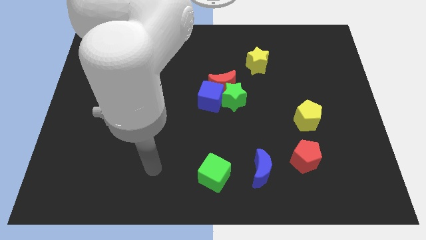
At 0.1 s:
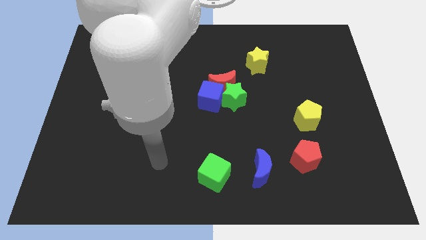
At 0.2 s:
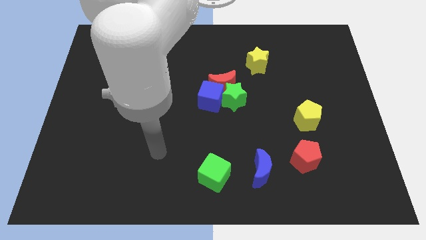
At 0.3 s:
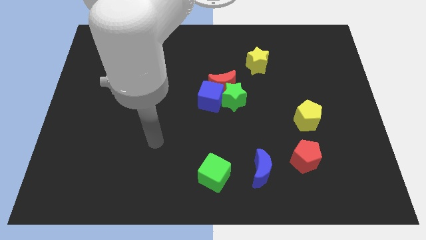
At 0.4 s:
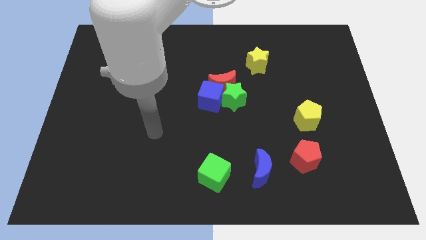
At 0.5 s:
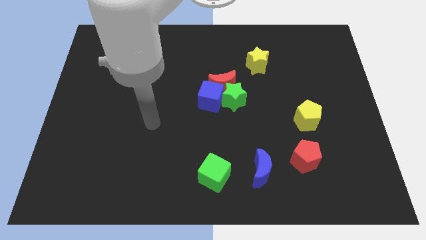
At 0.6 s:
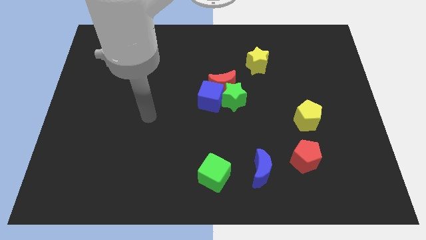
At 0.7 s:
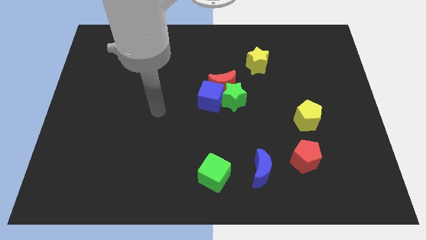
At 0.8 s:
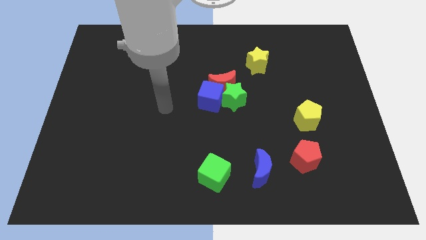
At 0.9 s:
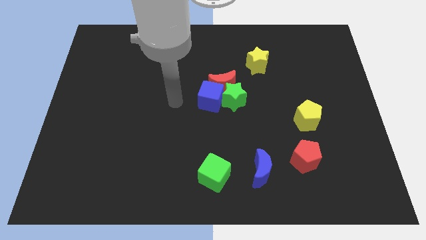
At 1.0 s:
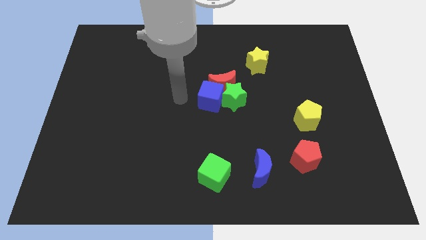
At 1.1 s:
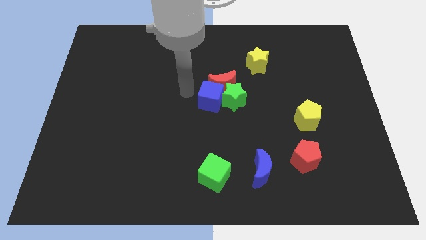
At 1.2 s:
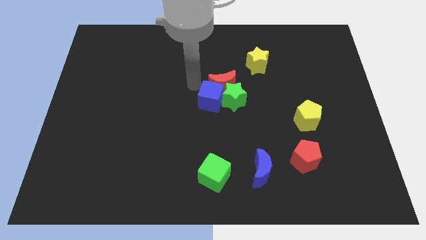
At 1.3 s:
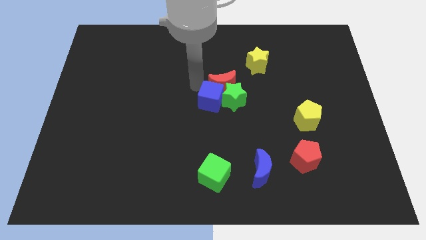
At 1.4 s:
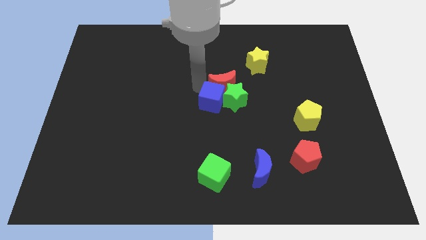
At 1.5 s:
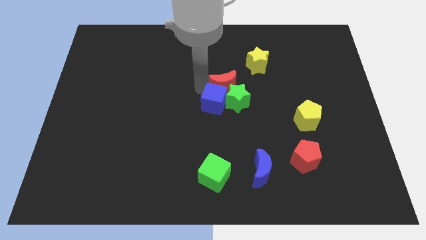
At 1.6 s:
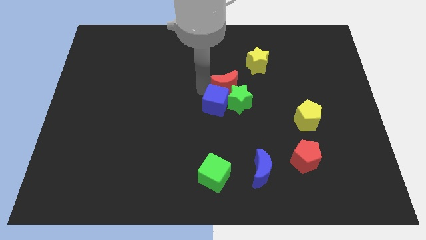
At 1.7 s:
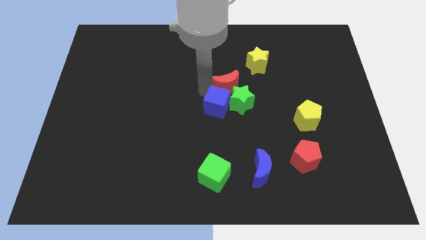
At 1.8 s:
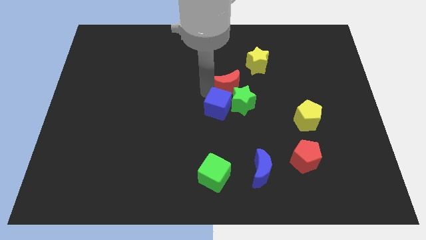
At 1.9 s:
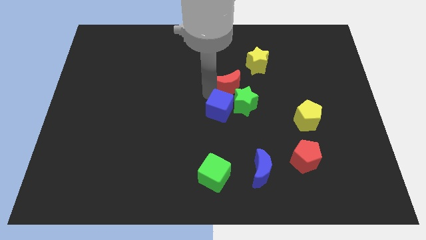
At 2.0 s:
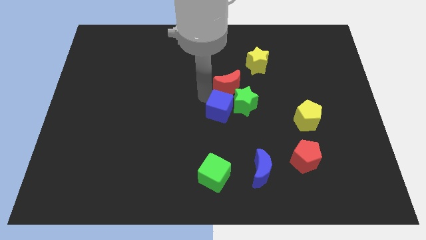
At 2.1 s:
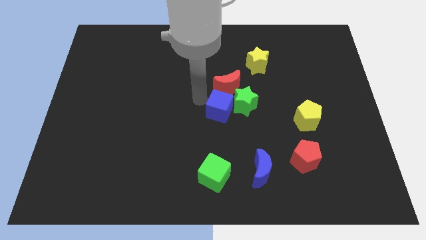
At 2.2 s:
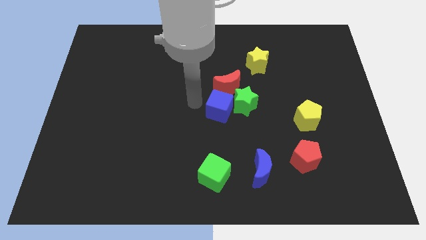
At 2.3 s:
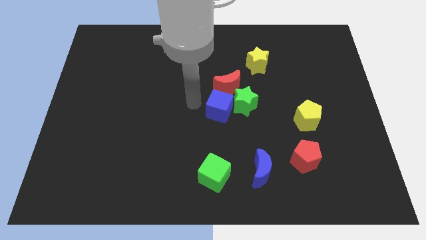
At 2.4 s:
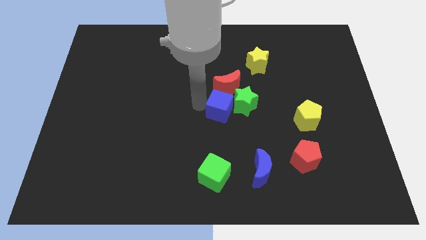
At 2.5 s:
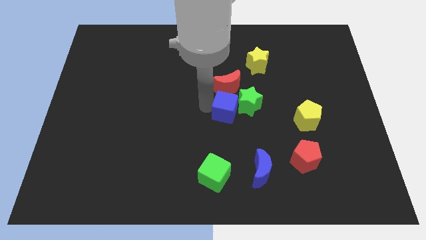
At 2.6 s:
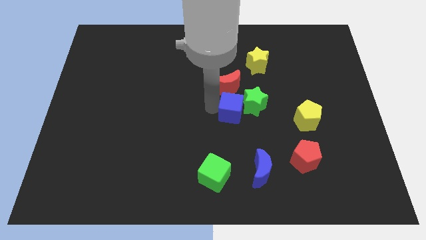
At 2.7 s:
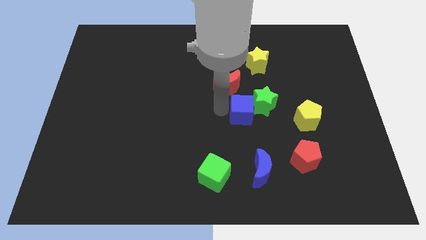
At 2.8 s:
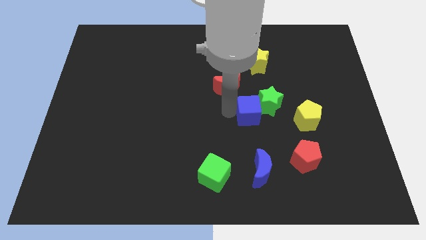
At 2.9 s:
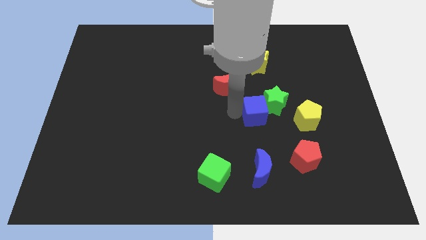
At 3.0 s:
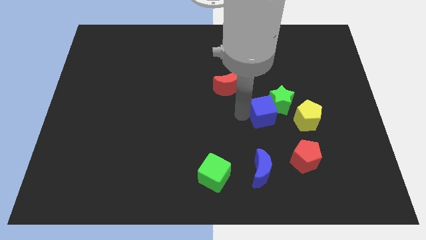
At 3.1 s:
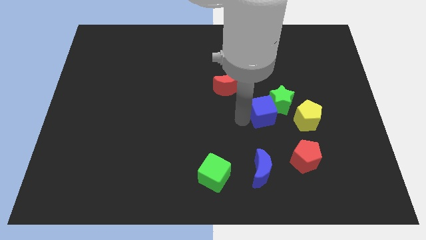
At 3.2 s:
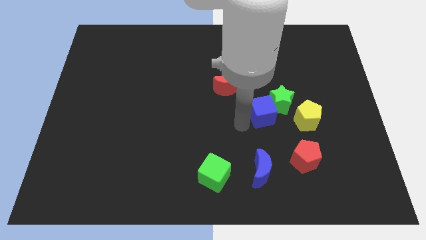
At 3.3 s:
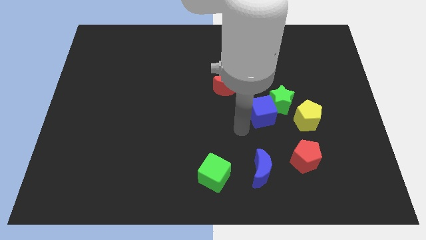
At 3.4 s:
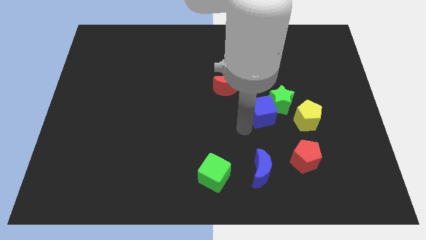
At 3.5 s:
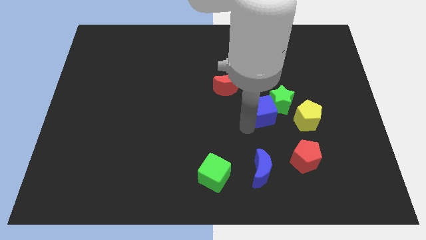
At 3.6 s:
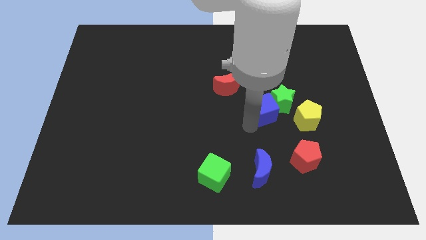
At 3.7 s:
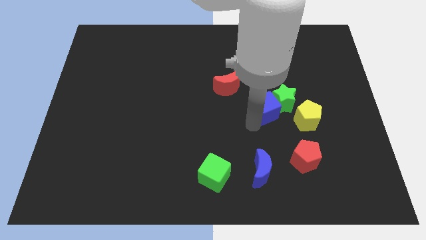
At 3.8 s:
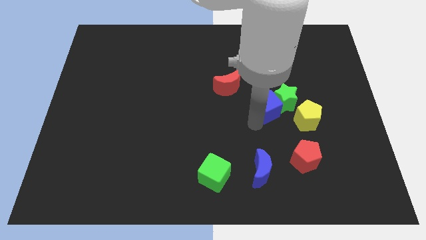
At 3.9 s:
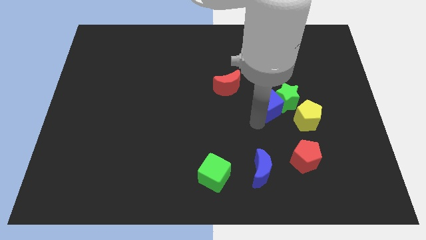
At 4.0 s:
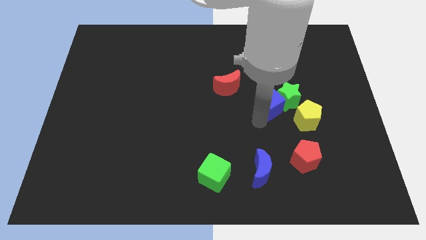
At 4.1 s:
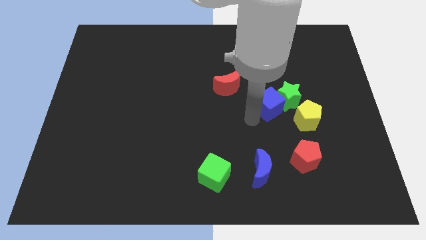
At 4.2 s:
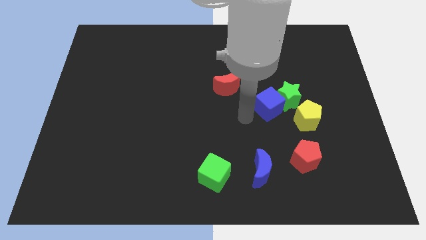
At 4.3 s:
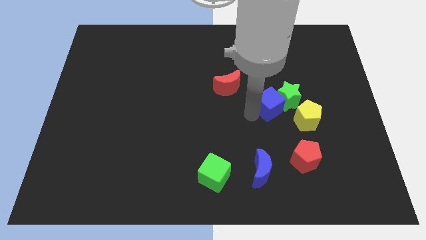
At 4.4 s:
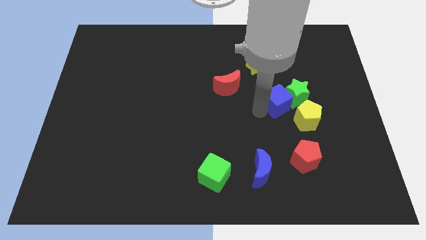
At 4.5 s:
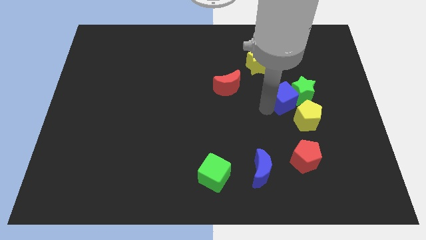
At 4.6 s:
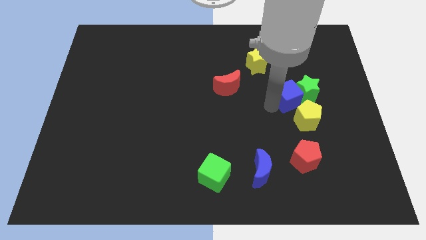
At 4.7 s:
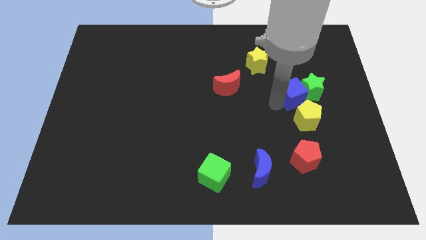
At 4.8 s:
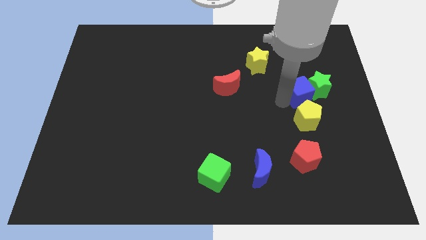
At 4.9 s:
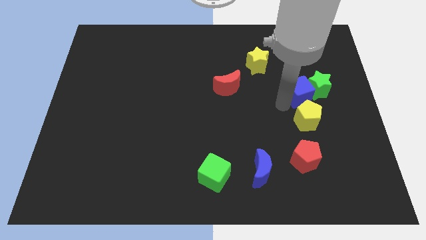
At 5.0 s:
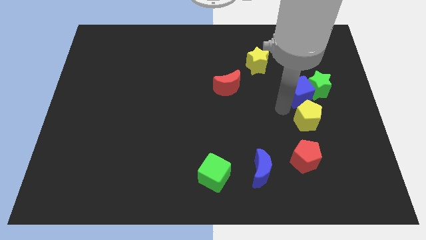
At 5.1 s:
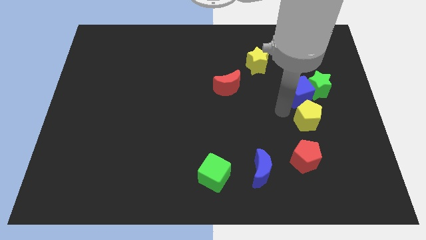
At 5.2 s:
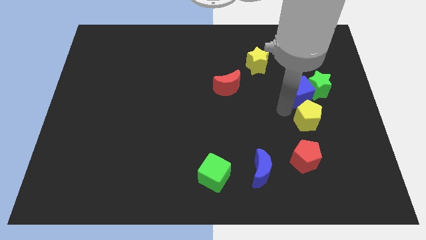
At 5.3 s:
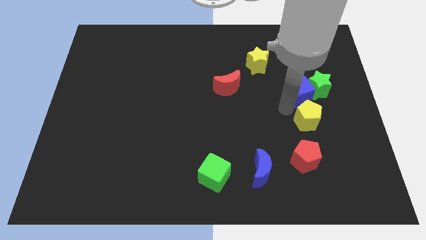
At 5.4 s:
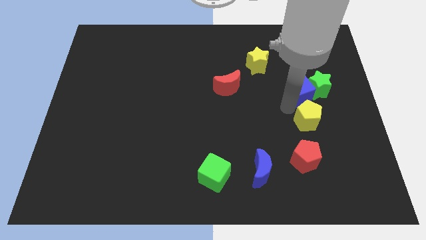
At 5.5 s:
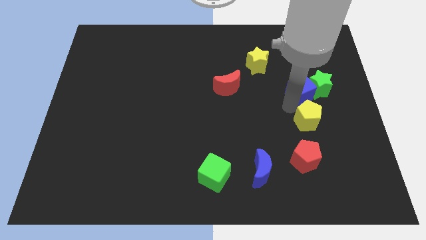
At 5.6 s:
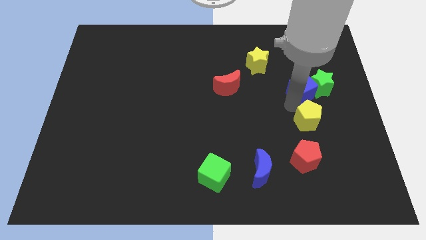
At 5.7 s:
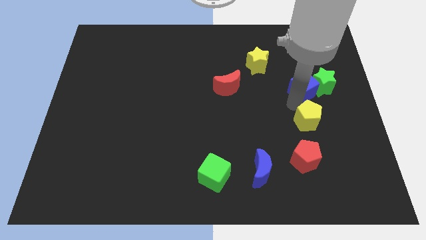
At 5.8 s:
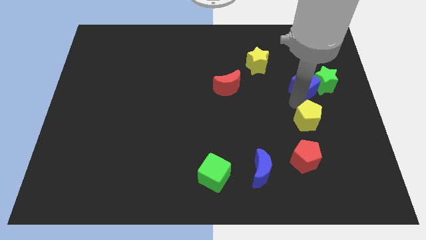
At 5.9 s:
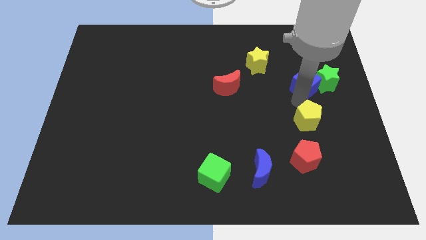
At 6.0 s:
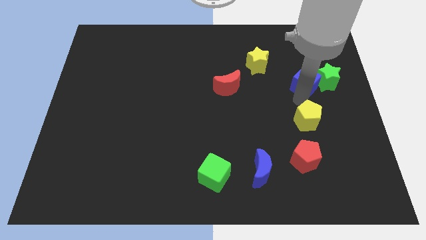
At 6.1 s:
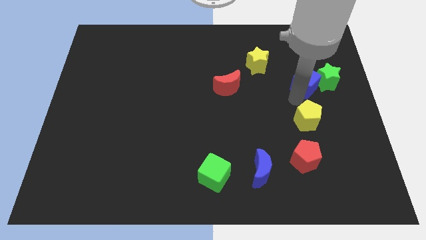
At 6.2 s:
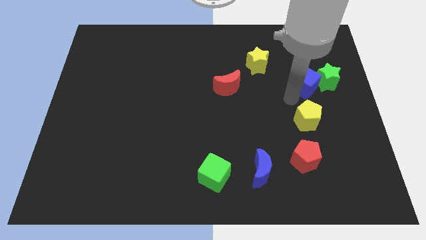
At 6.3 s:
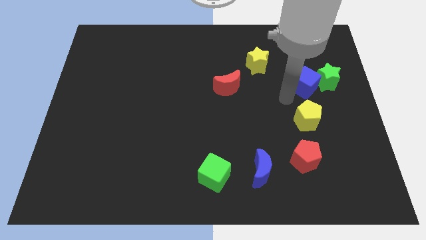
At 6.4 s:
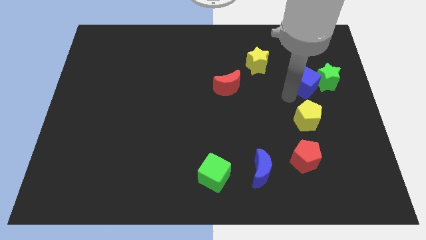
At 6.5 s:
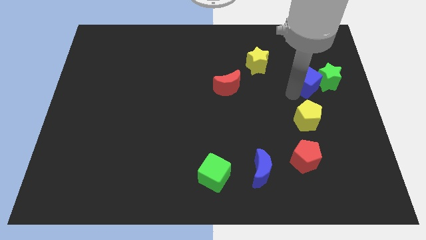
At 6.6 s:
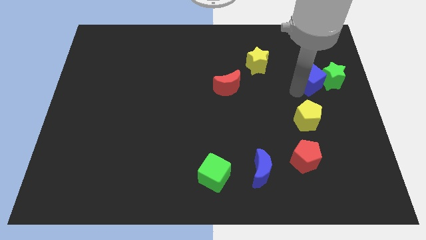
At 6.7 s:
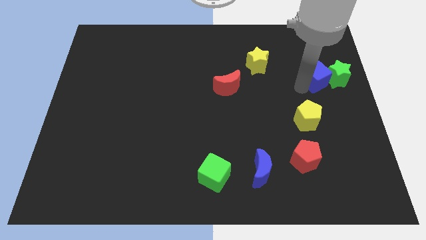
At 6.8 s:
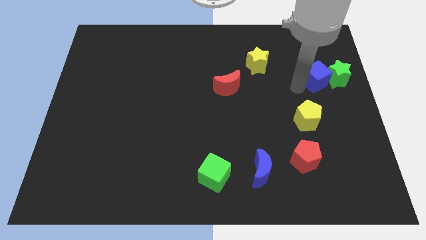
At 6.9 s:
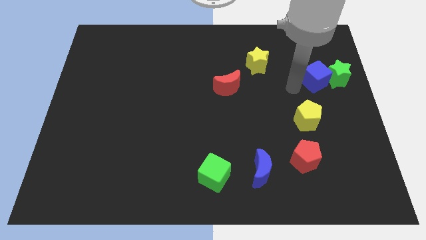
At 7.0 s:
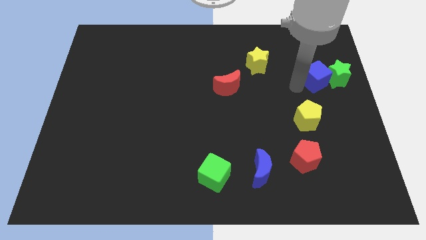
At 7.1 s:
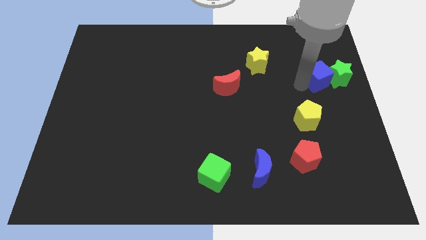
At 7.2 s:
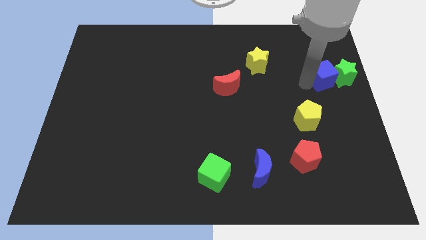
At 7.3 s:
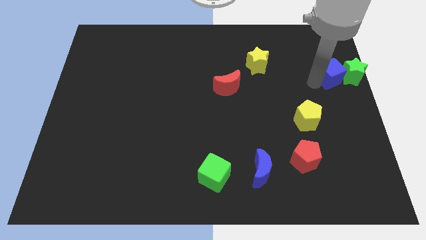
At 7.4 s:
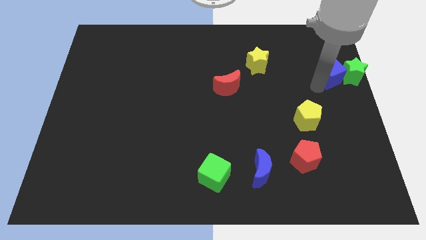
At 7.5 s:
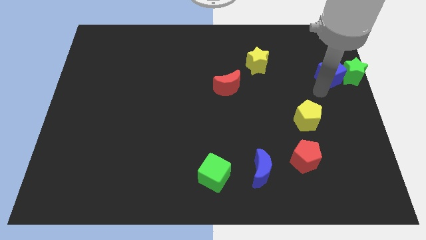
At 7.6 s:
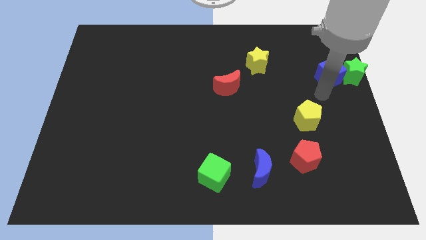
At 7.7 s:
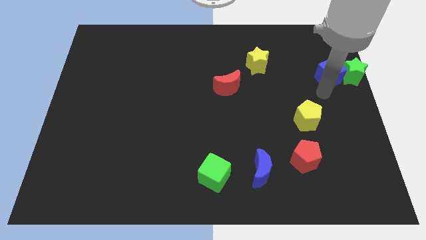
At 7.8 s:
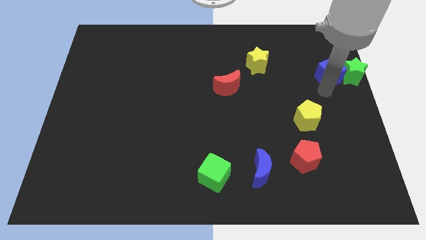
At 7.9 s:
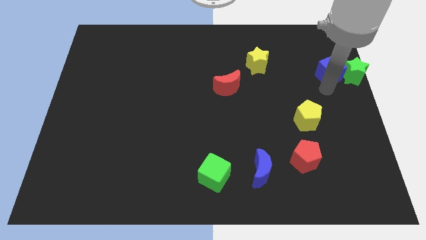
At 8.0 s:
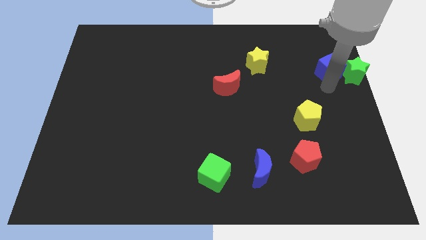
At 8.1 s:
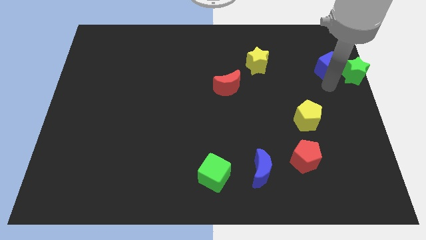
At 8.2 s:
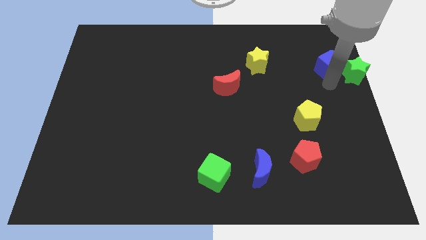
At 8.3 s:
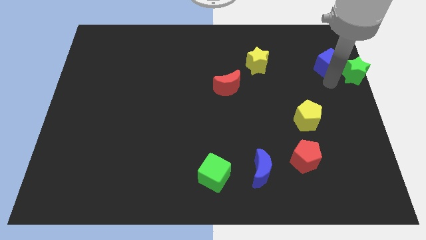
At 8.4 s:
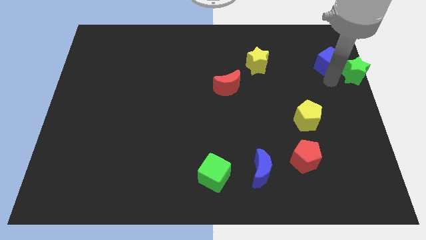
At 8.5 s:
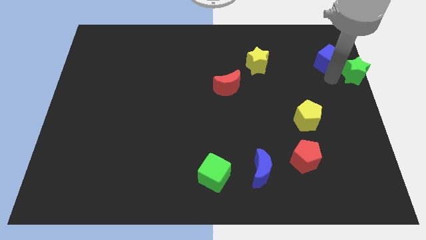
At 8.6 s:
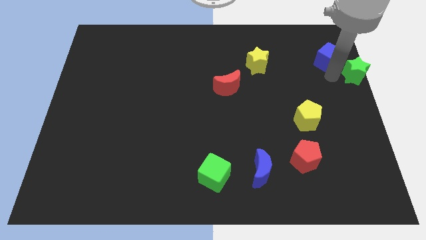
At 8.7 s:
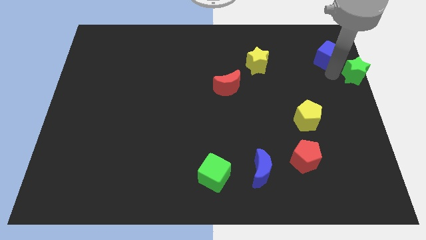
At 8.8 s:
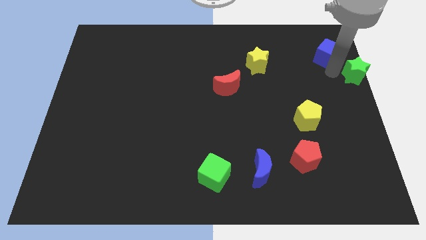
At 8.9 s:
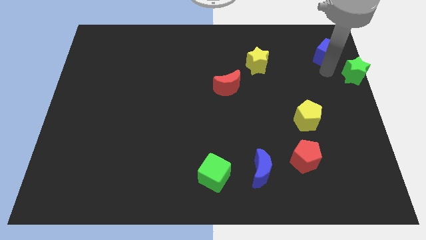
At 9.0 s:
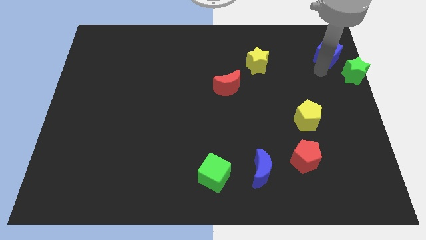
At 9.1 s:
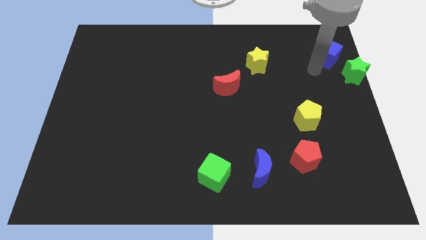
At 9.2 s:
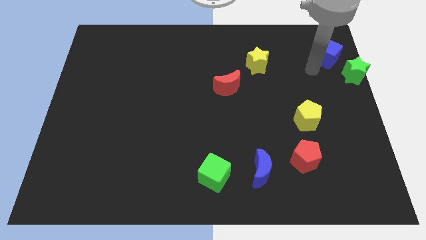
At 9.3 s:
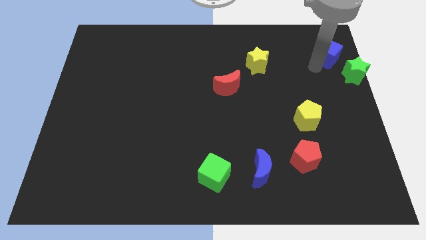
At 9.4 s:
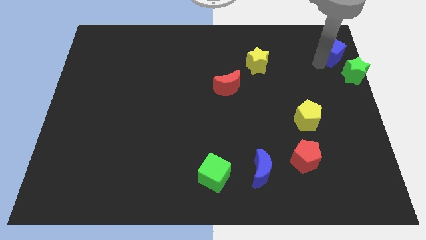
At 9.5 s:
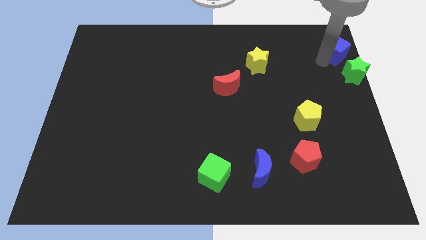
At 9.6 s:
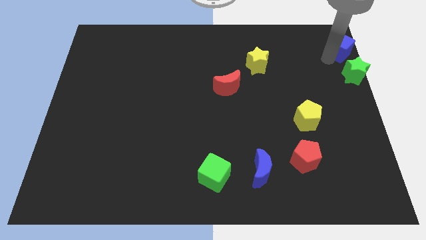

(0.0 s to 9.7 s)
push the blue cube to the top right
